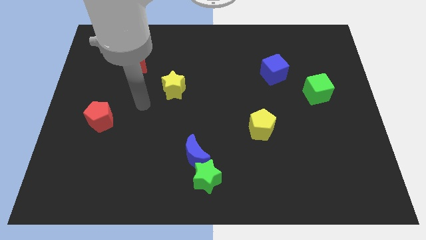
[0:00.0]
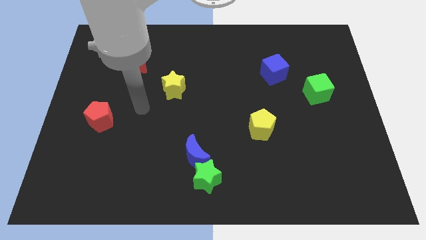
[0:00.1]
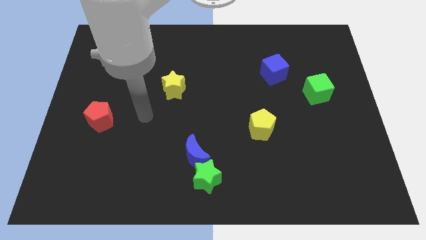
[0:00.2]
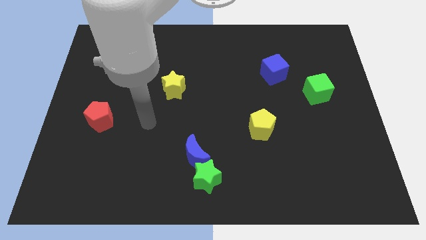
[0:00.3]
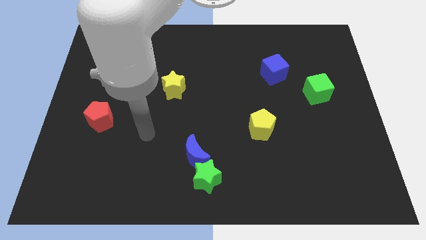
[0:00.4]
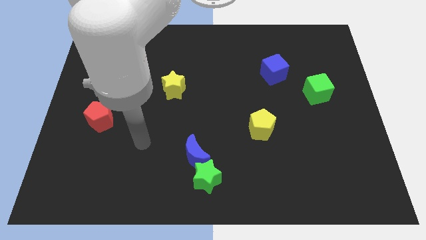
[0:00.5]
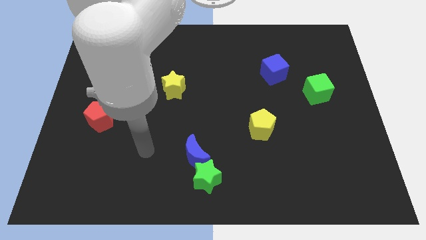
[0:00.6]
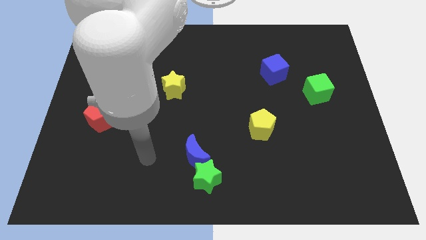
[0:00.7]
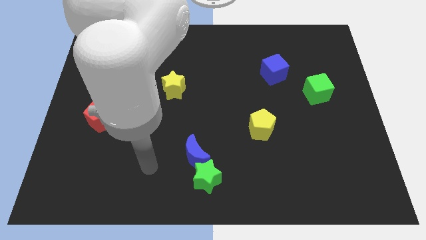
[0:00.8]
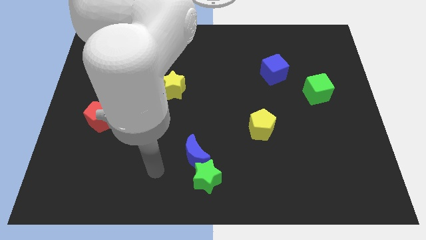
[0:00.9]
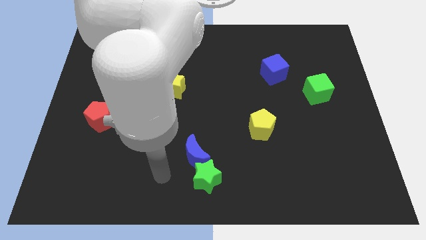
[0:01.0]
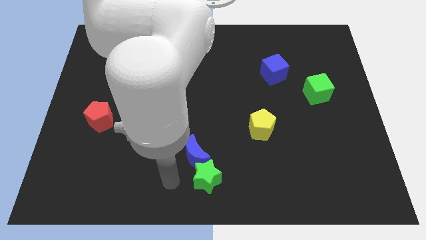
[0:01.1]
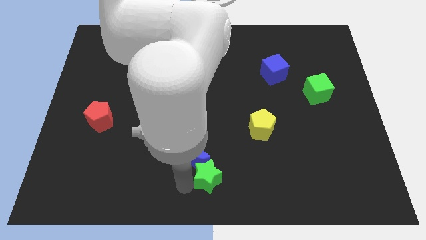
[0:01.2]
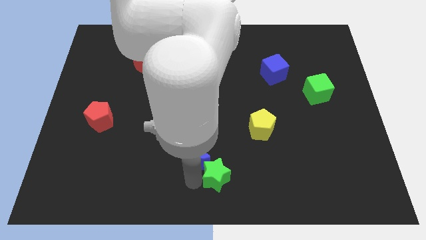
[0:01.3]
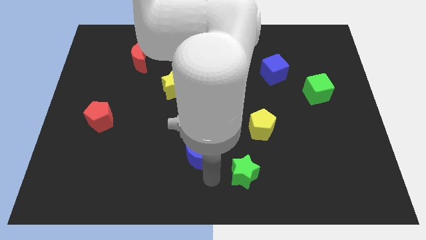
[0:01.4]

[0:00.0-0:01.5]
separate the blue moon from the green star

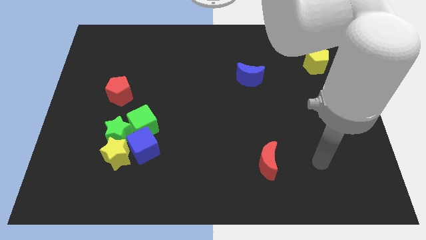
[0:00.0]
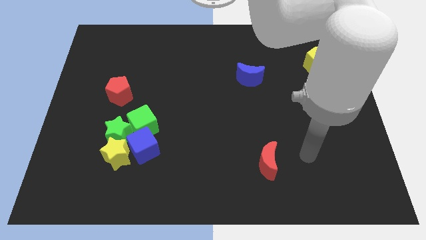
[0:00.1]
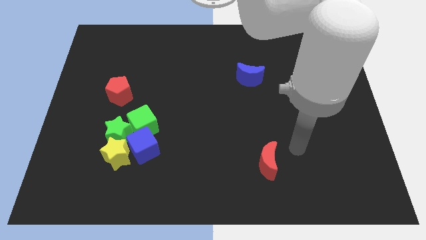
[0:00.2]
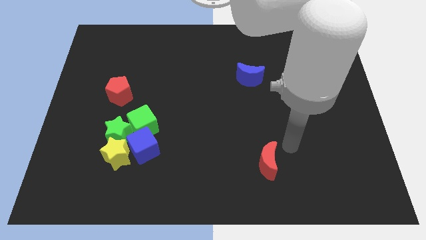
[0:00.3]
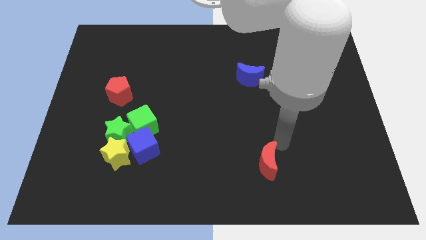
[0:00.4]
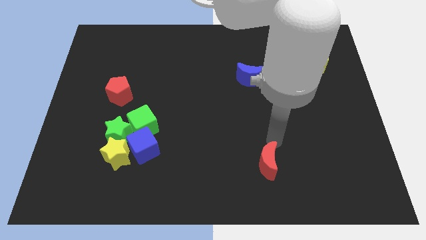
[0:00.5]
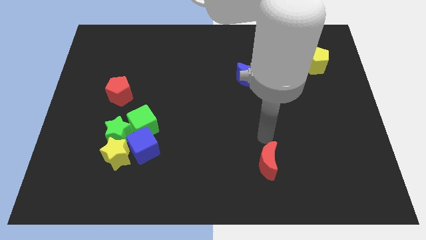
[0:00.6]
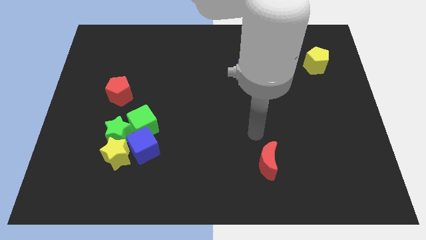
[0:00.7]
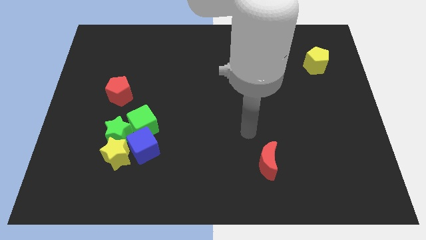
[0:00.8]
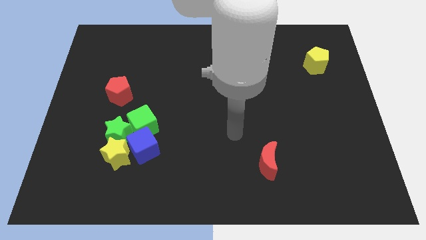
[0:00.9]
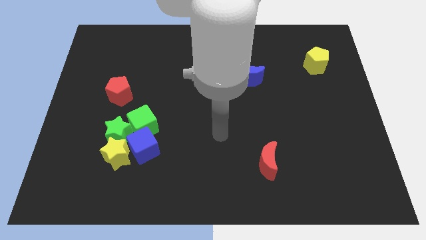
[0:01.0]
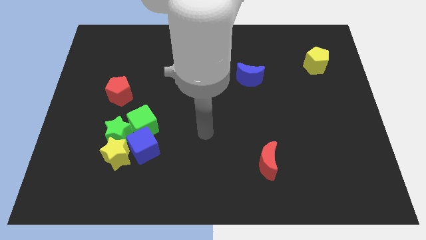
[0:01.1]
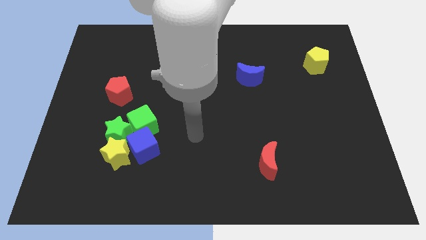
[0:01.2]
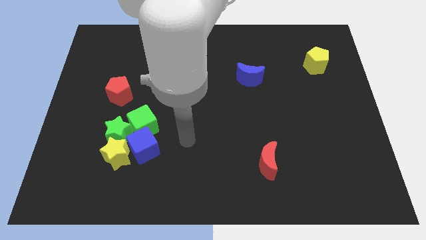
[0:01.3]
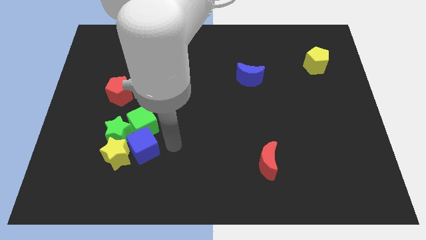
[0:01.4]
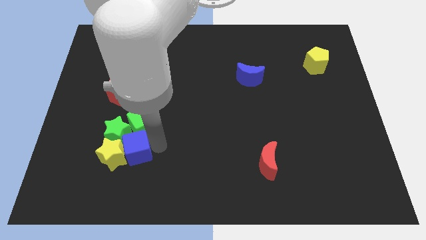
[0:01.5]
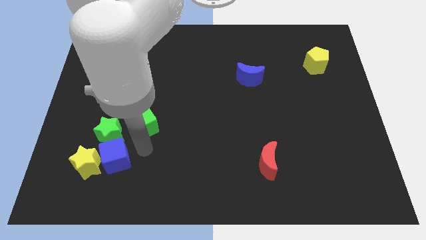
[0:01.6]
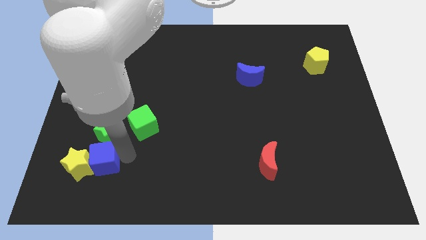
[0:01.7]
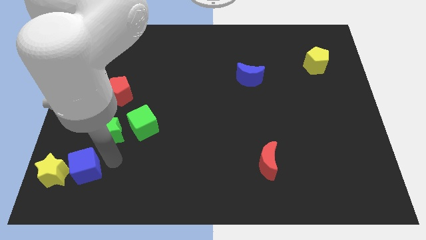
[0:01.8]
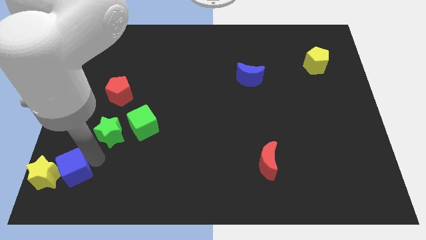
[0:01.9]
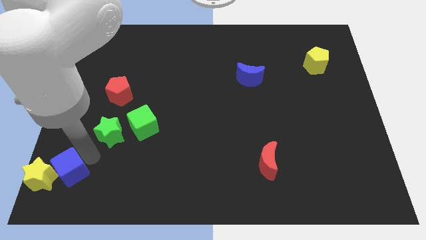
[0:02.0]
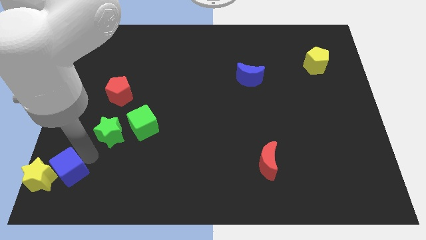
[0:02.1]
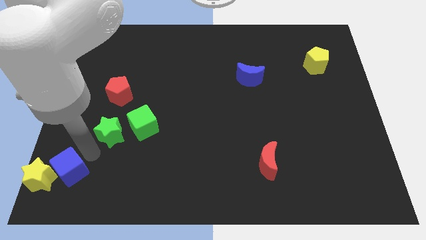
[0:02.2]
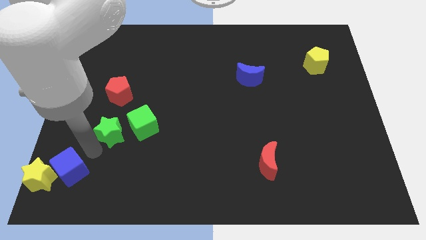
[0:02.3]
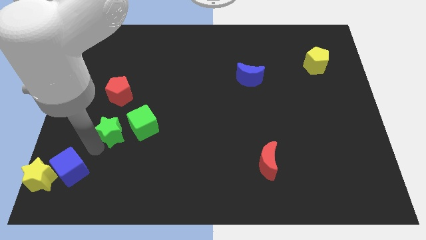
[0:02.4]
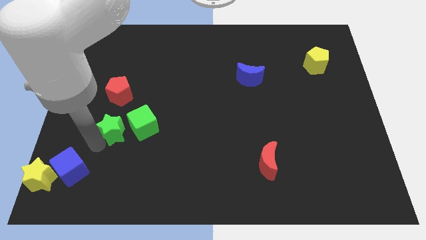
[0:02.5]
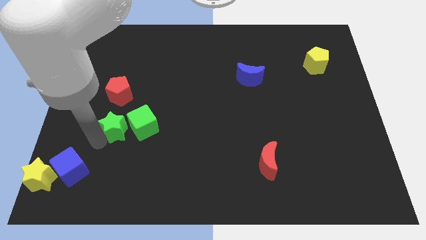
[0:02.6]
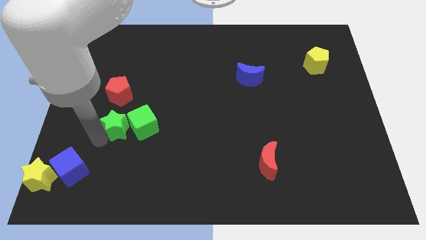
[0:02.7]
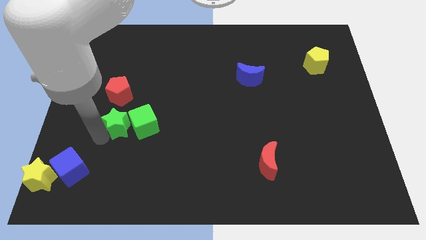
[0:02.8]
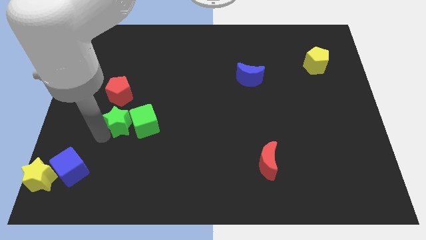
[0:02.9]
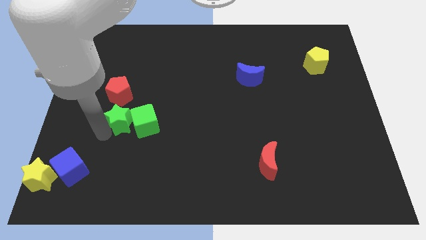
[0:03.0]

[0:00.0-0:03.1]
pull the green star apart from the group of blocks

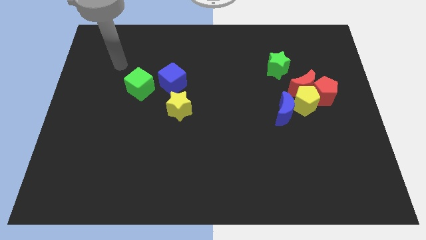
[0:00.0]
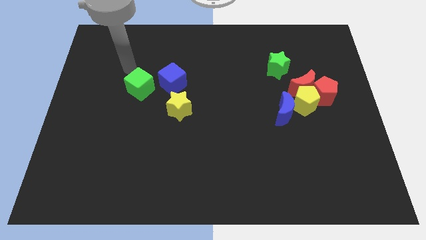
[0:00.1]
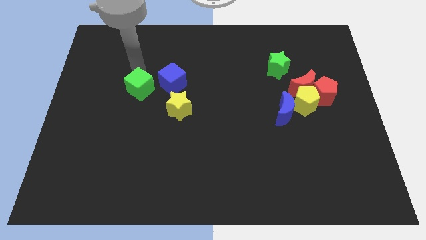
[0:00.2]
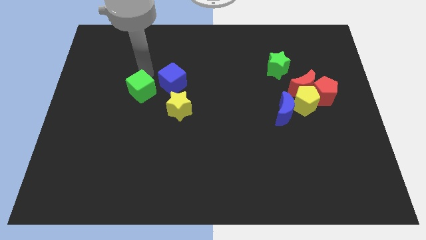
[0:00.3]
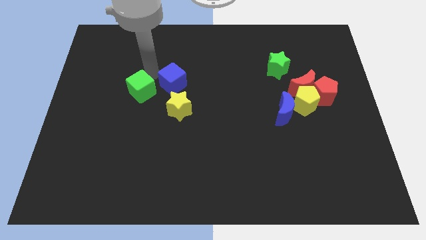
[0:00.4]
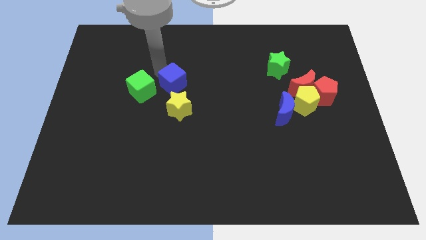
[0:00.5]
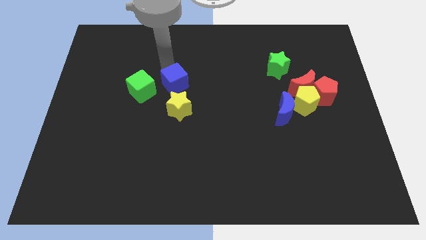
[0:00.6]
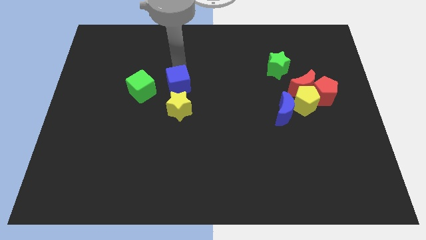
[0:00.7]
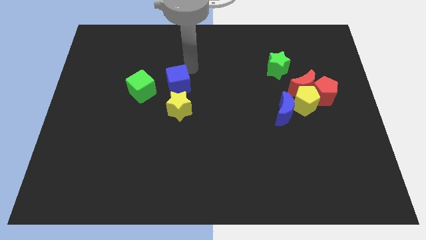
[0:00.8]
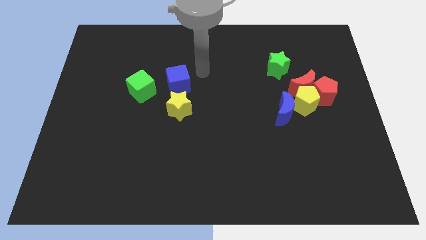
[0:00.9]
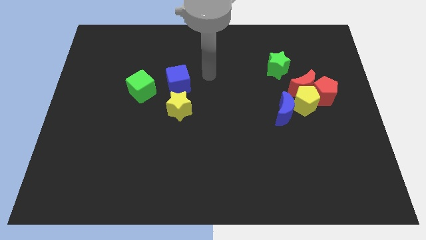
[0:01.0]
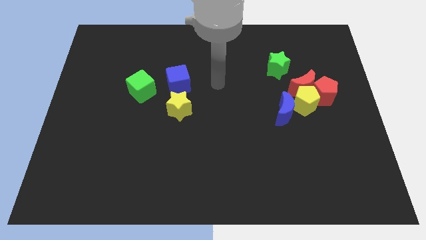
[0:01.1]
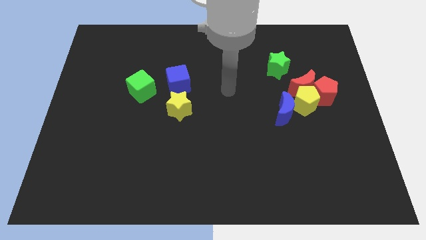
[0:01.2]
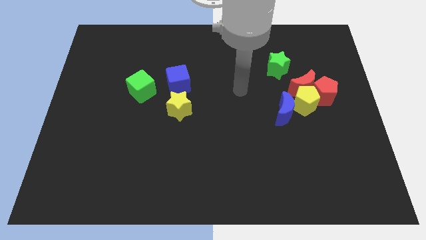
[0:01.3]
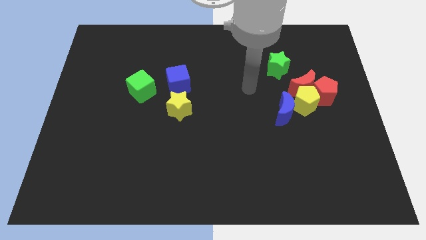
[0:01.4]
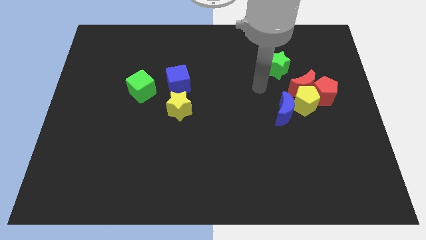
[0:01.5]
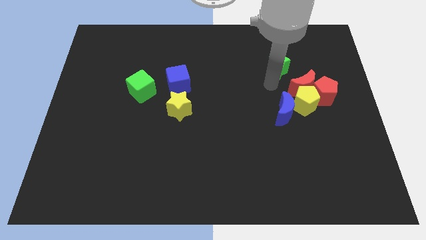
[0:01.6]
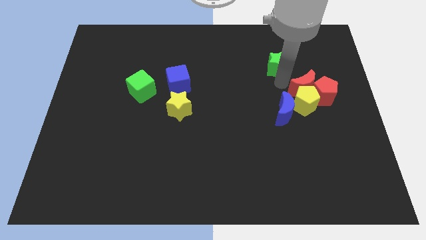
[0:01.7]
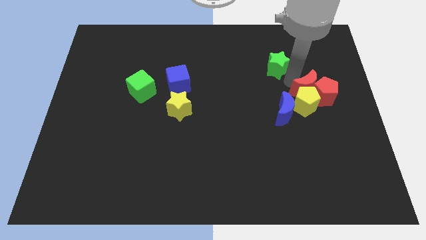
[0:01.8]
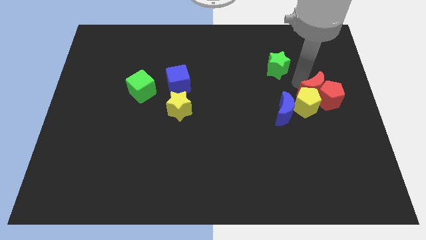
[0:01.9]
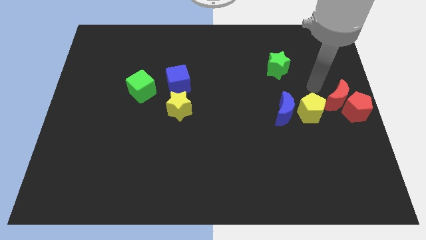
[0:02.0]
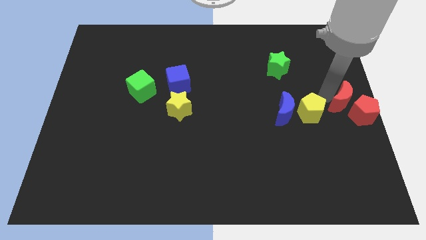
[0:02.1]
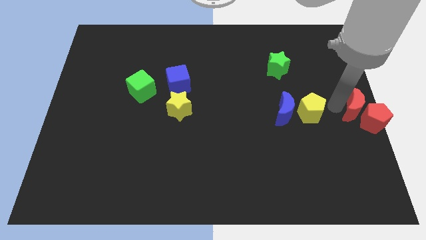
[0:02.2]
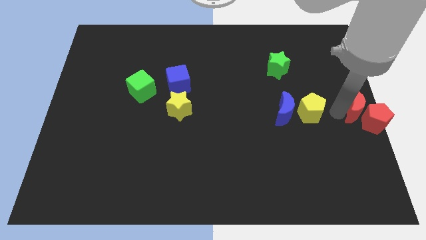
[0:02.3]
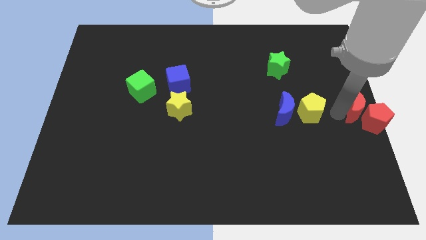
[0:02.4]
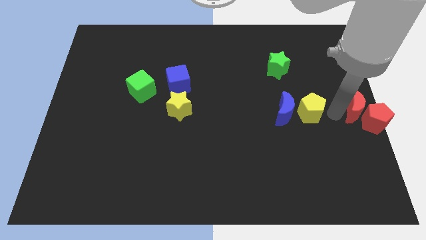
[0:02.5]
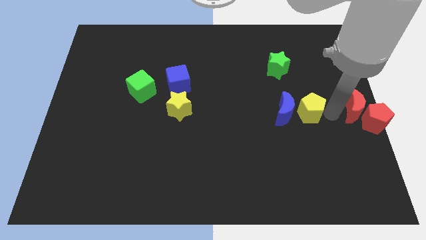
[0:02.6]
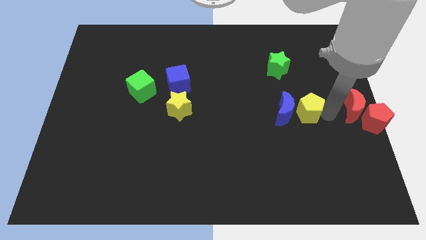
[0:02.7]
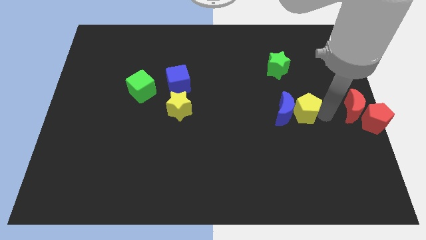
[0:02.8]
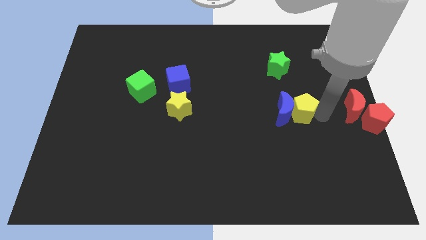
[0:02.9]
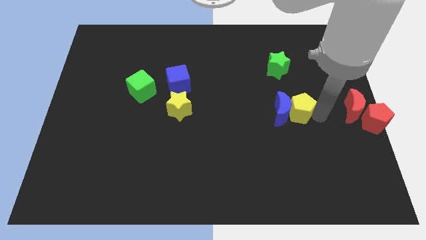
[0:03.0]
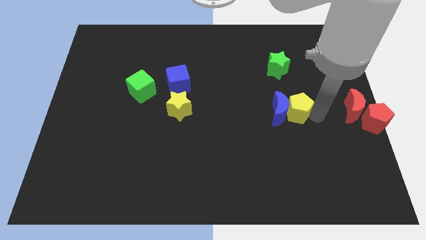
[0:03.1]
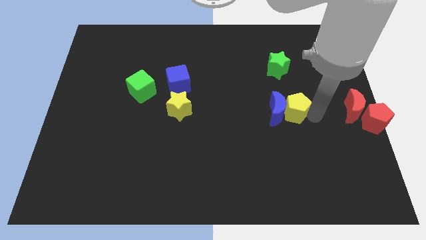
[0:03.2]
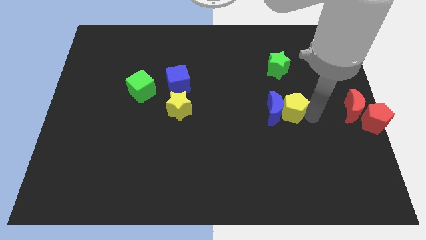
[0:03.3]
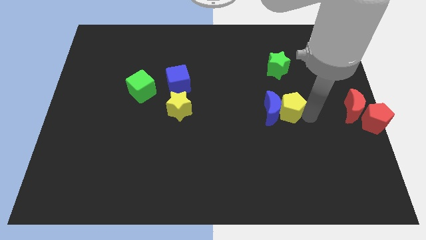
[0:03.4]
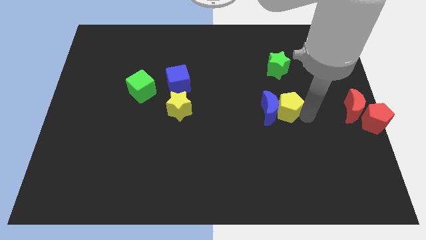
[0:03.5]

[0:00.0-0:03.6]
move the yellow pentagon away from the red moon, blue moon, and red pentagon

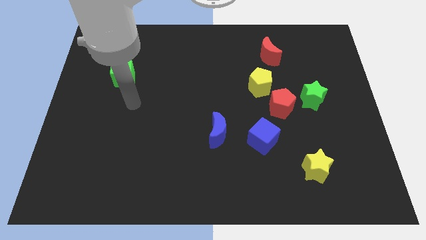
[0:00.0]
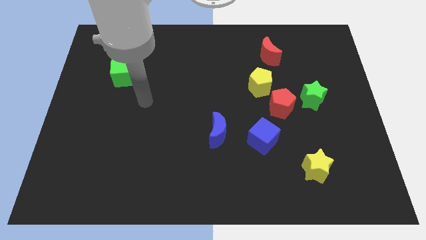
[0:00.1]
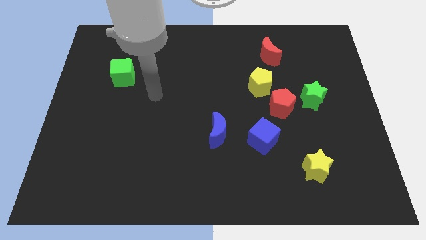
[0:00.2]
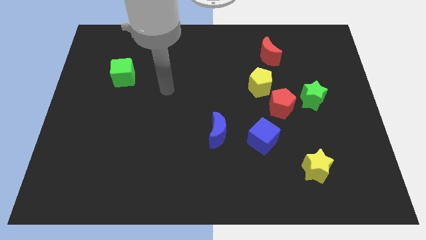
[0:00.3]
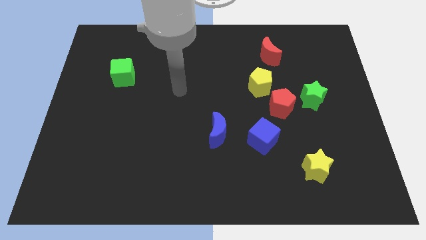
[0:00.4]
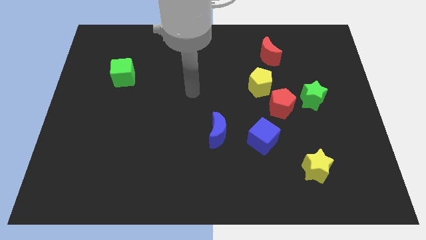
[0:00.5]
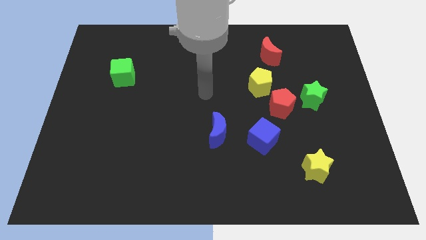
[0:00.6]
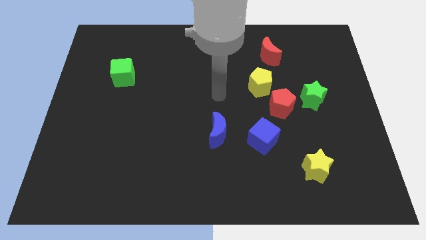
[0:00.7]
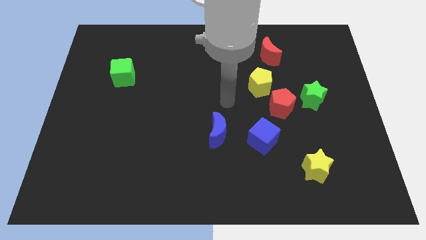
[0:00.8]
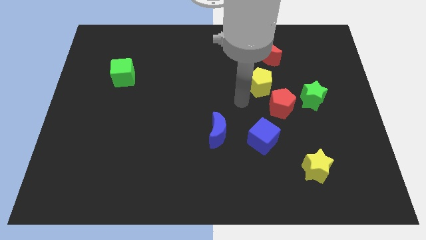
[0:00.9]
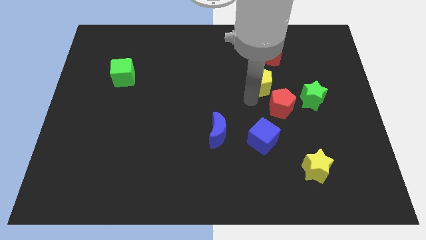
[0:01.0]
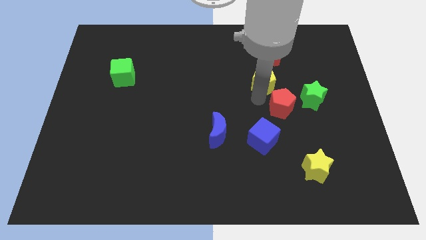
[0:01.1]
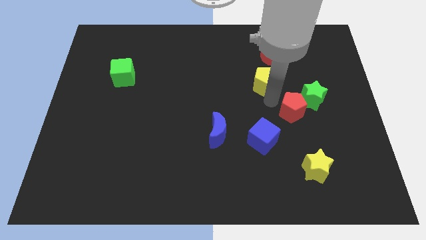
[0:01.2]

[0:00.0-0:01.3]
separate the yellow pentagon from the red pentagon
